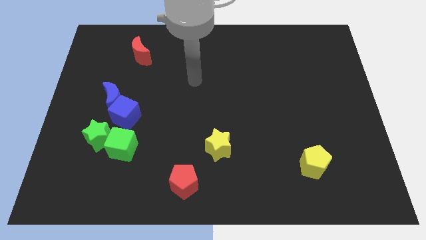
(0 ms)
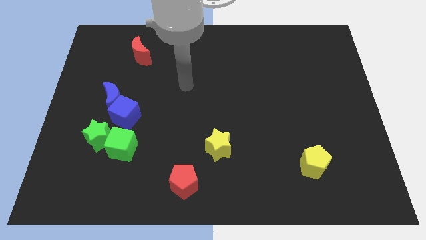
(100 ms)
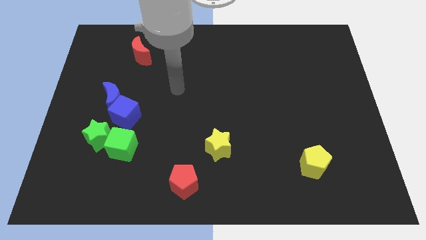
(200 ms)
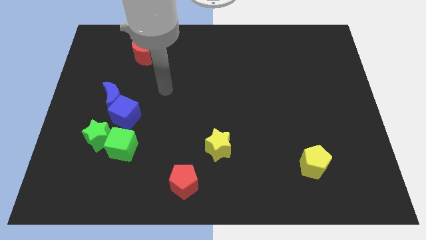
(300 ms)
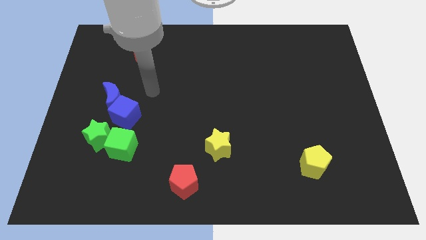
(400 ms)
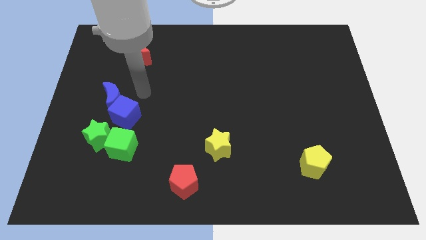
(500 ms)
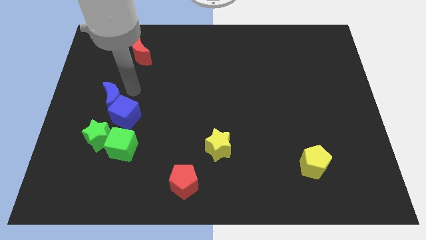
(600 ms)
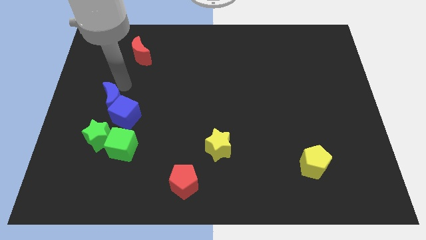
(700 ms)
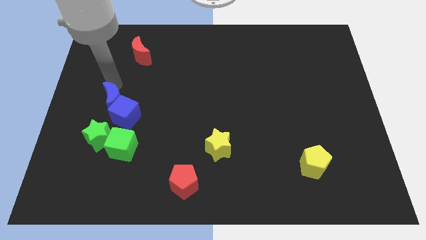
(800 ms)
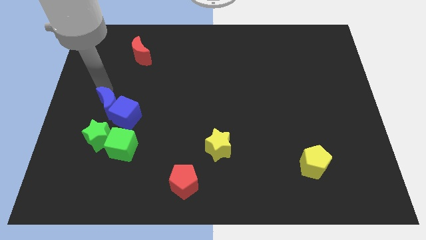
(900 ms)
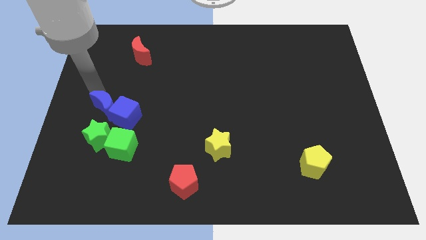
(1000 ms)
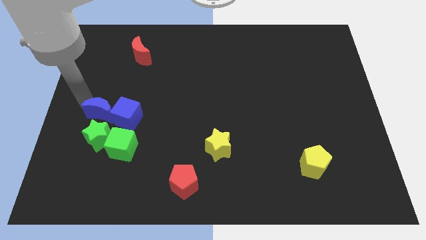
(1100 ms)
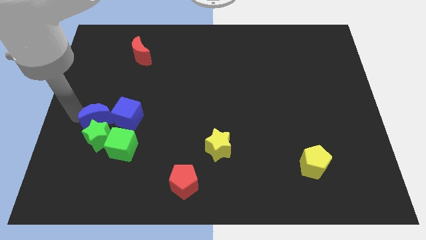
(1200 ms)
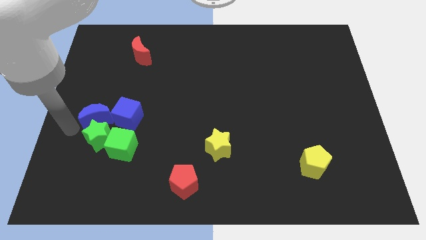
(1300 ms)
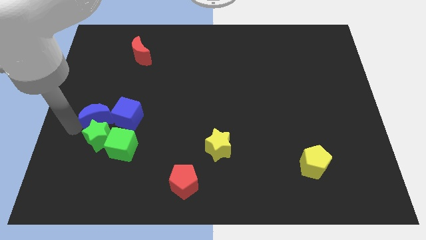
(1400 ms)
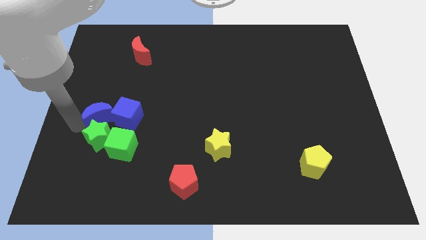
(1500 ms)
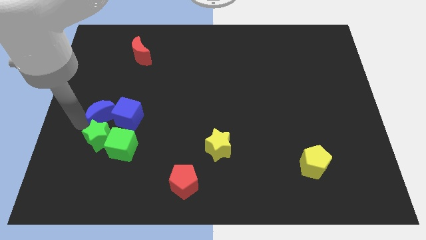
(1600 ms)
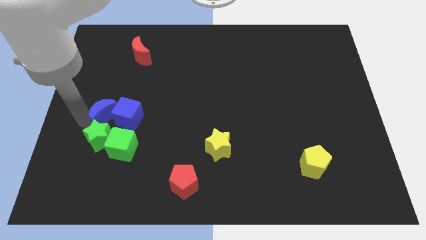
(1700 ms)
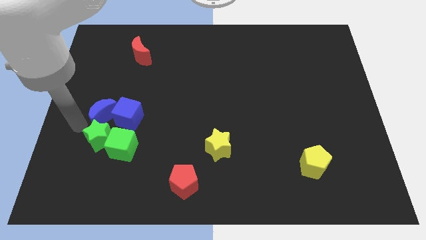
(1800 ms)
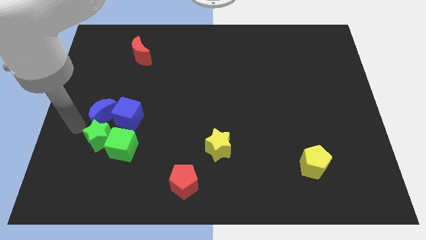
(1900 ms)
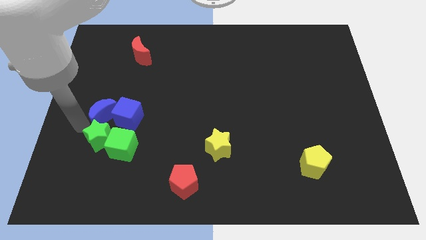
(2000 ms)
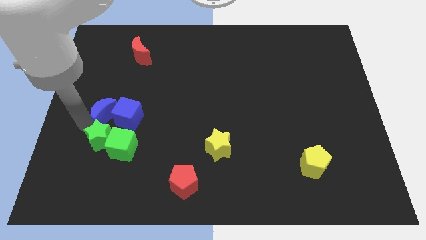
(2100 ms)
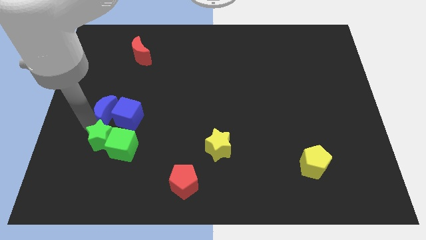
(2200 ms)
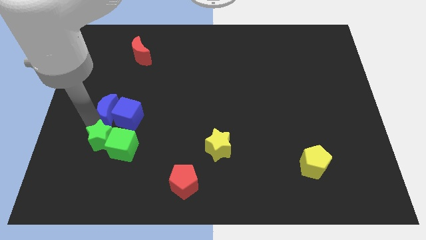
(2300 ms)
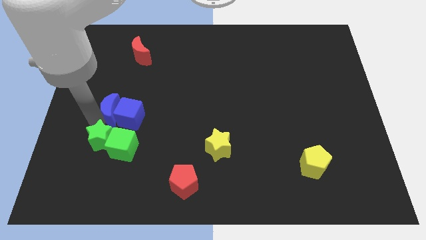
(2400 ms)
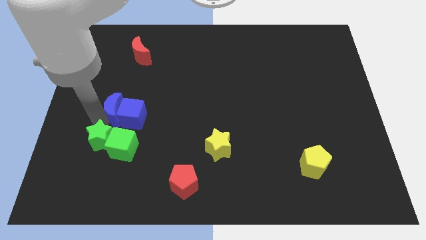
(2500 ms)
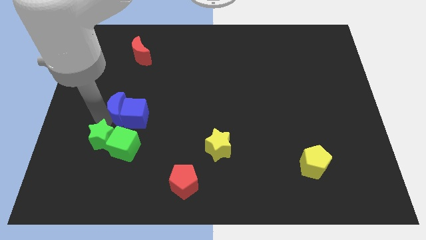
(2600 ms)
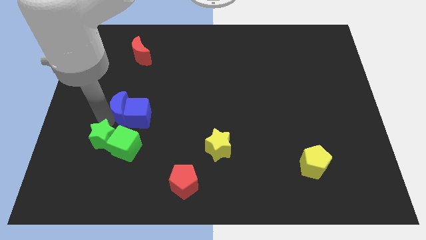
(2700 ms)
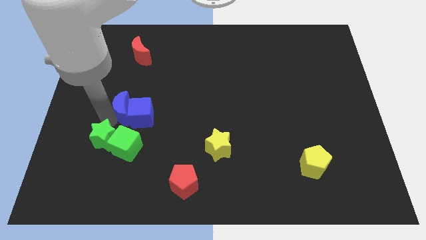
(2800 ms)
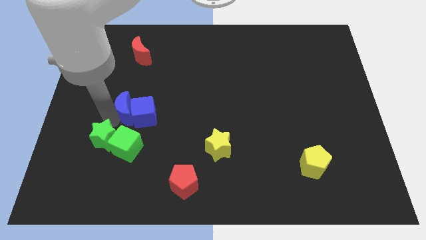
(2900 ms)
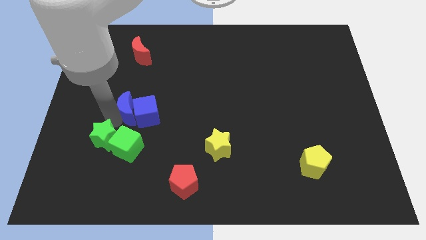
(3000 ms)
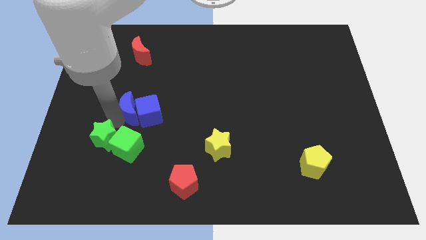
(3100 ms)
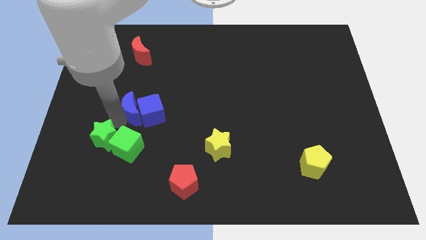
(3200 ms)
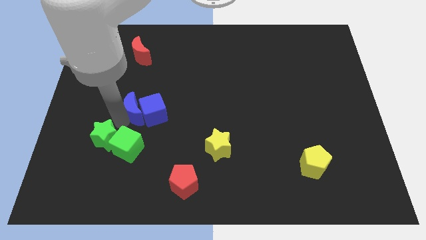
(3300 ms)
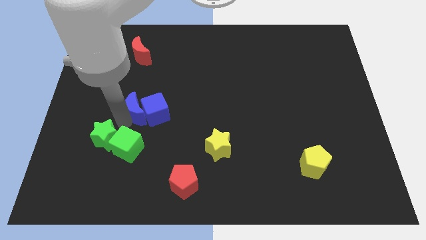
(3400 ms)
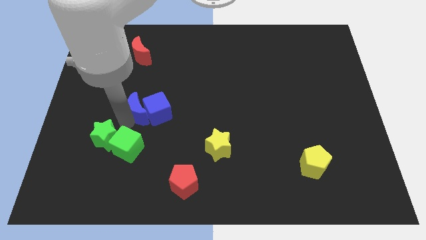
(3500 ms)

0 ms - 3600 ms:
push the blue moon down and then right somewhat

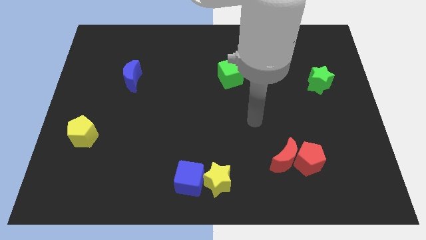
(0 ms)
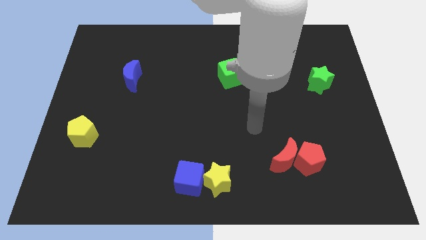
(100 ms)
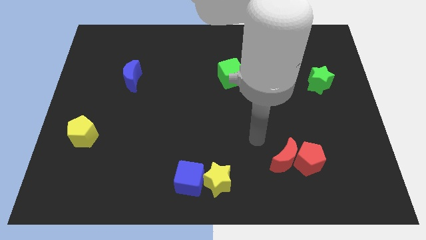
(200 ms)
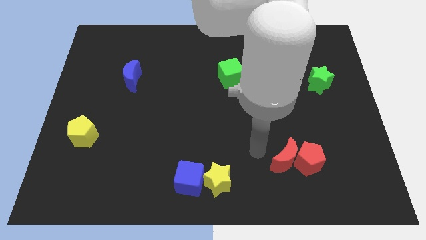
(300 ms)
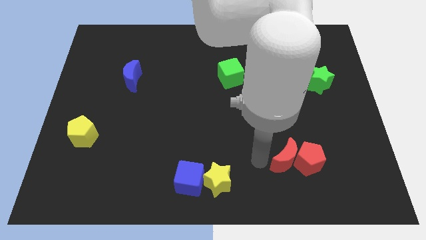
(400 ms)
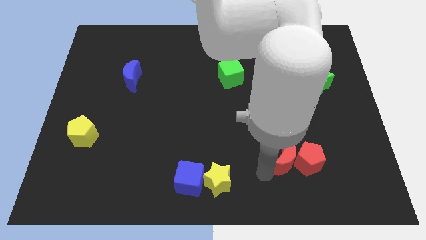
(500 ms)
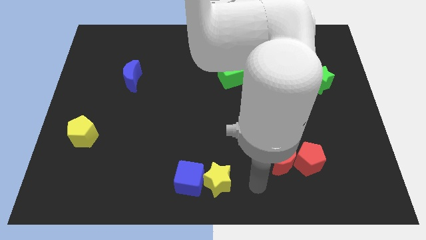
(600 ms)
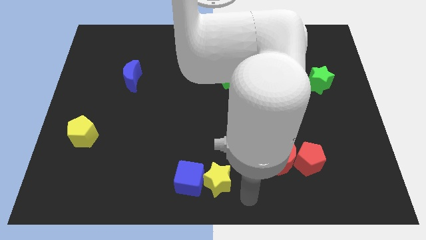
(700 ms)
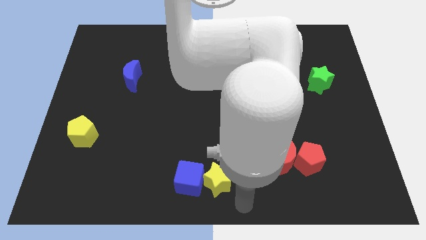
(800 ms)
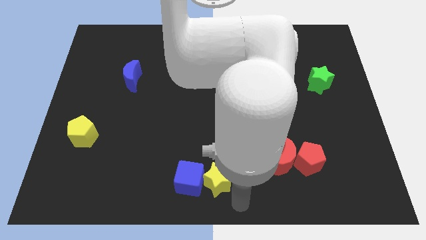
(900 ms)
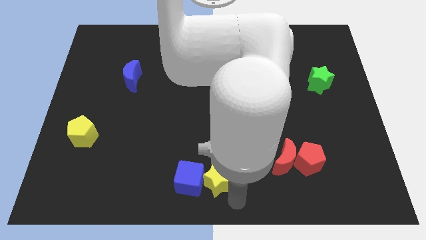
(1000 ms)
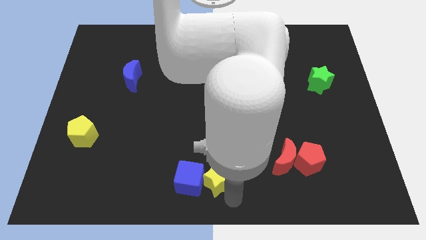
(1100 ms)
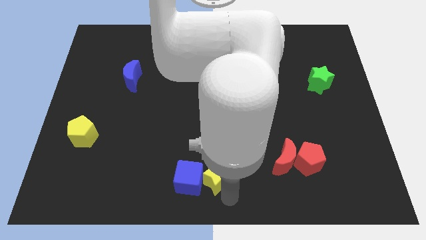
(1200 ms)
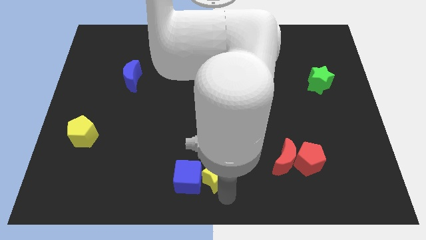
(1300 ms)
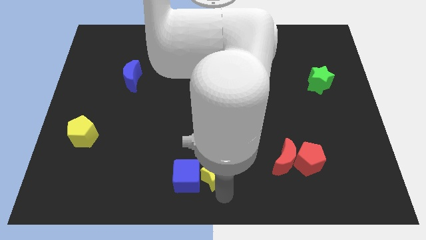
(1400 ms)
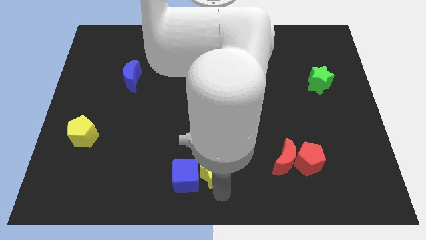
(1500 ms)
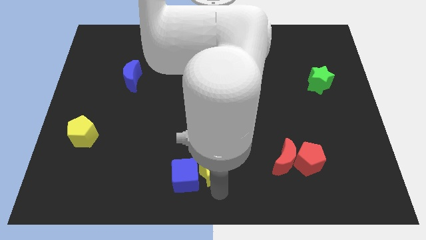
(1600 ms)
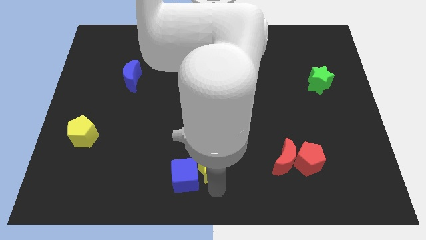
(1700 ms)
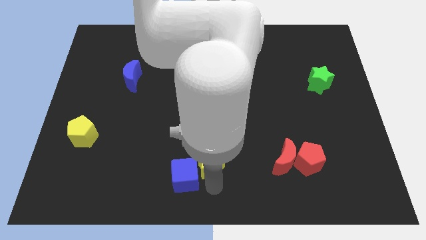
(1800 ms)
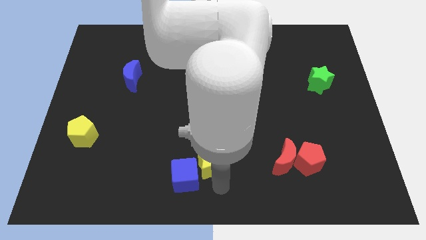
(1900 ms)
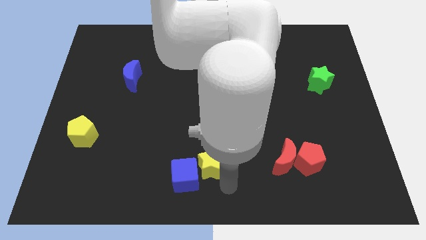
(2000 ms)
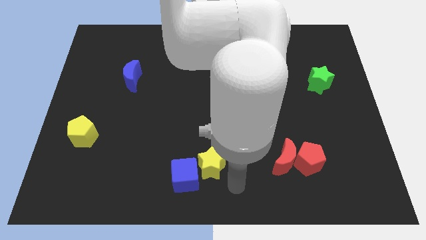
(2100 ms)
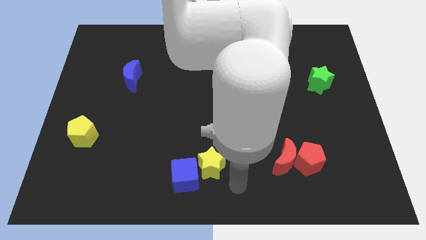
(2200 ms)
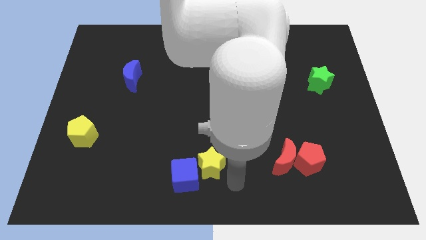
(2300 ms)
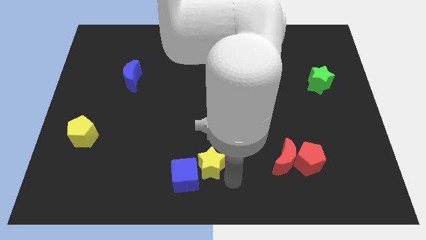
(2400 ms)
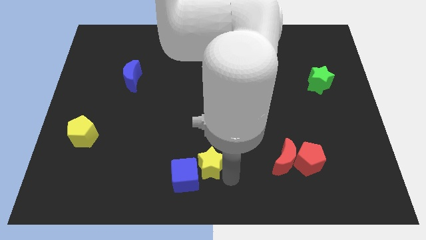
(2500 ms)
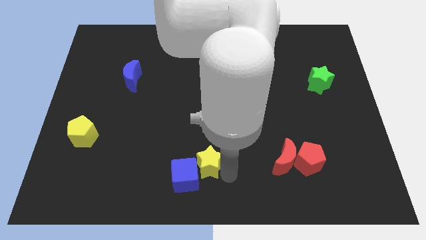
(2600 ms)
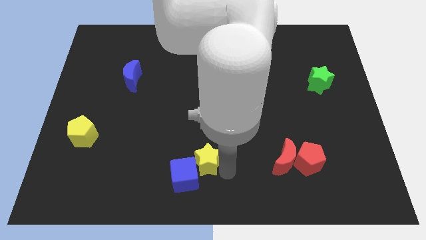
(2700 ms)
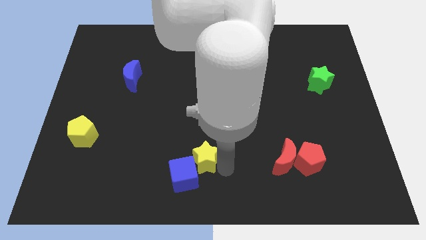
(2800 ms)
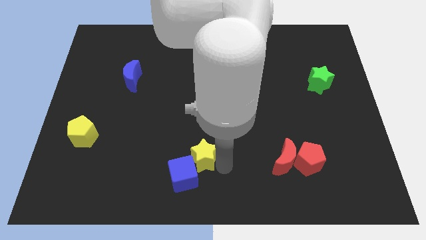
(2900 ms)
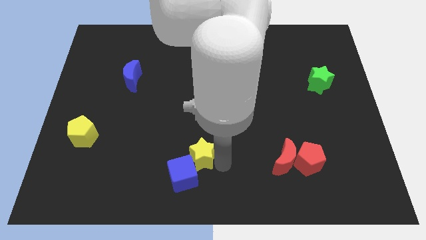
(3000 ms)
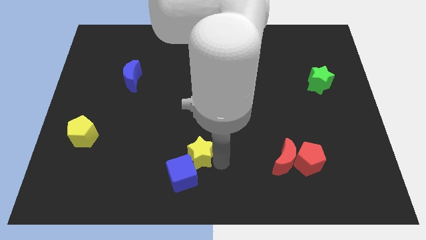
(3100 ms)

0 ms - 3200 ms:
push the yellow star up and then to the left a little

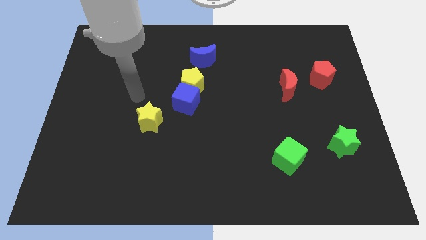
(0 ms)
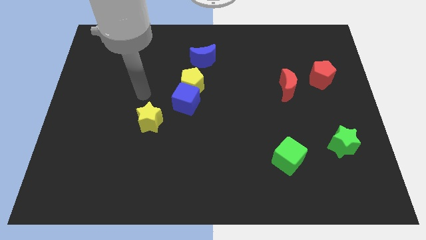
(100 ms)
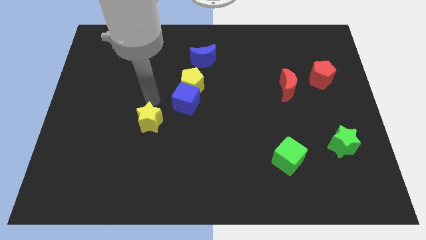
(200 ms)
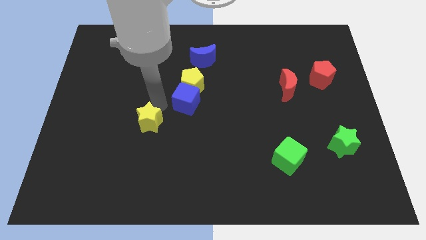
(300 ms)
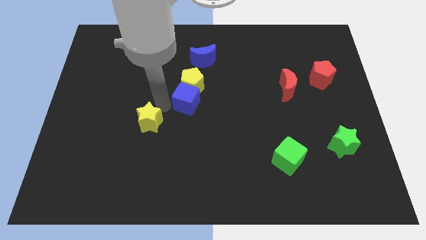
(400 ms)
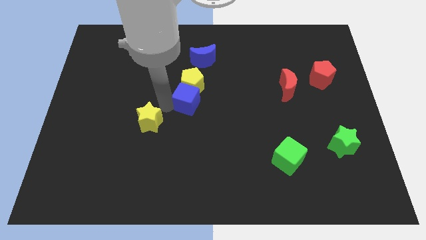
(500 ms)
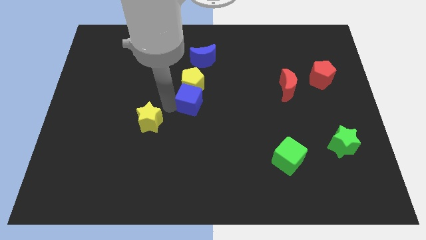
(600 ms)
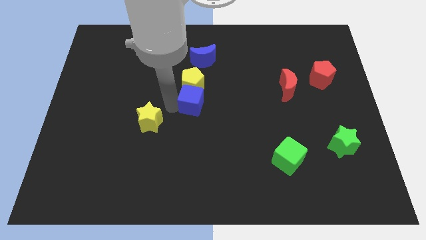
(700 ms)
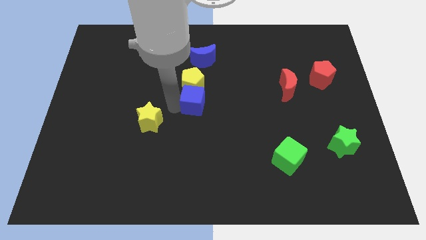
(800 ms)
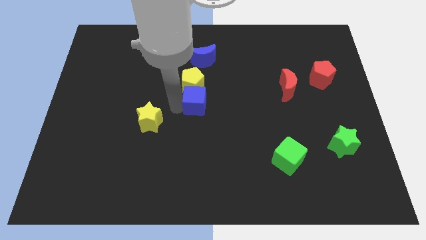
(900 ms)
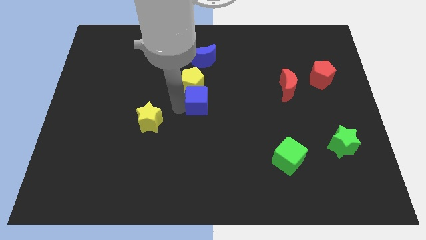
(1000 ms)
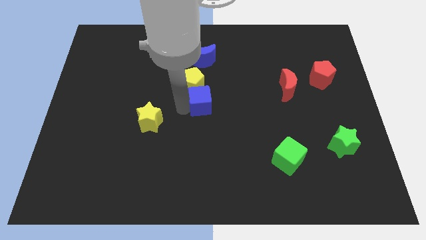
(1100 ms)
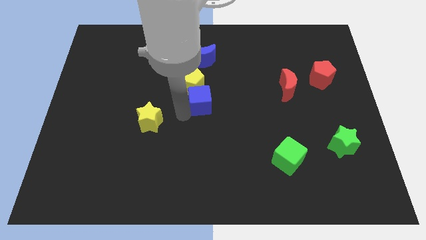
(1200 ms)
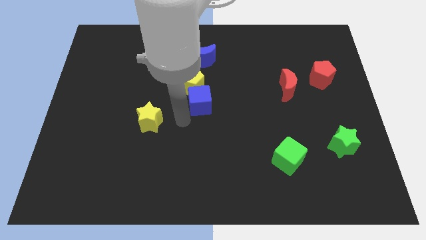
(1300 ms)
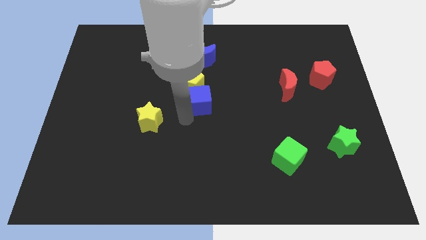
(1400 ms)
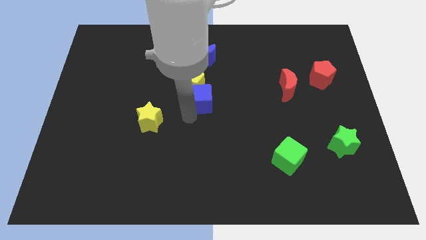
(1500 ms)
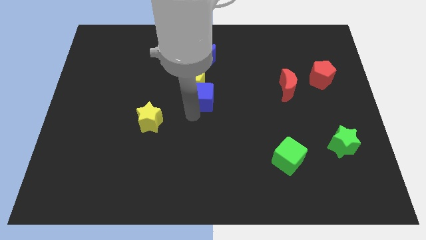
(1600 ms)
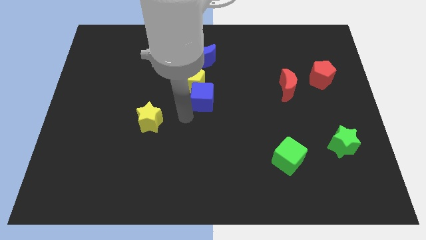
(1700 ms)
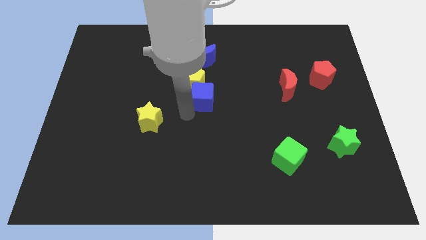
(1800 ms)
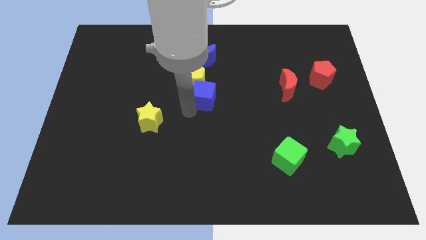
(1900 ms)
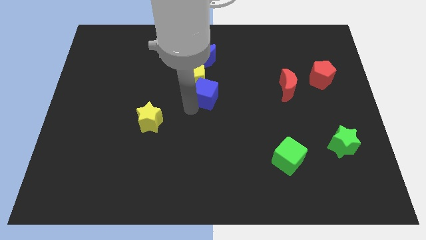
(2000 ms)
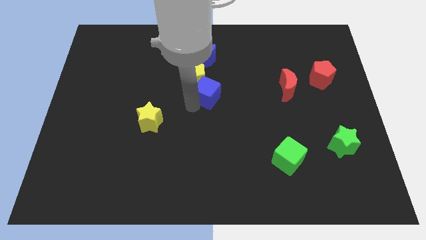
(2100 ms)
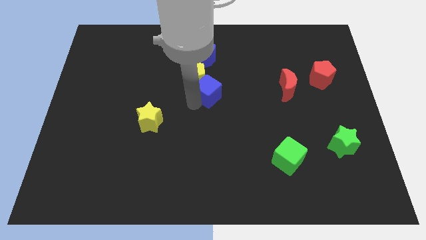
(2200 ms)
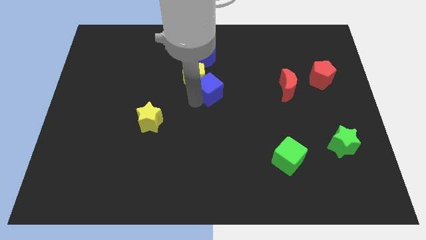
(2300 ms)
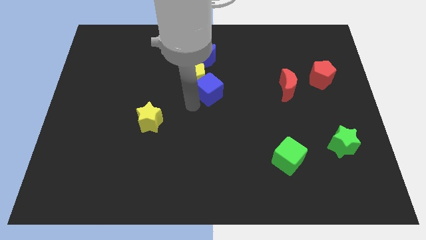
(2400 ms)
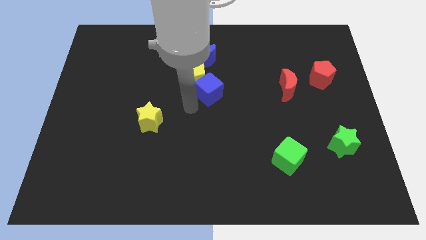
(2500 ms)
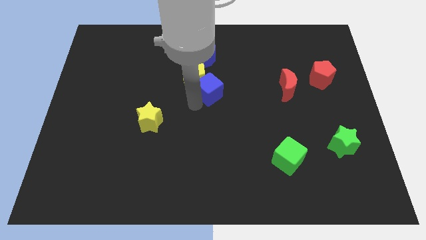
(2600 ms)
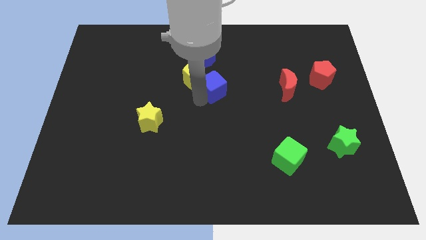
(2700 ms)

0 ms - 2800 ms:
move the blue cube a little bit up and to the right
